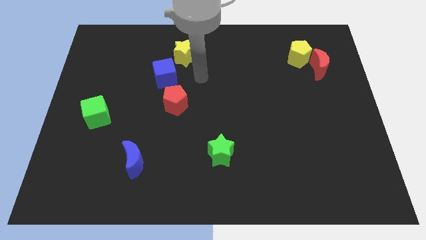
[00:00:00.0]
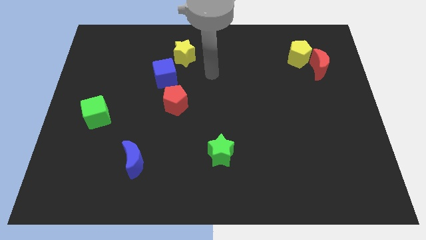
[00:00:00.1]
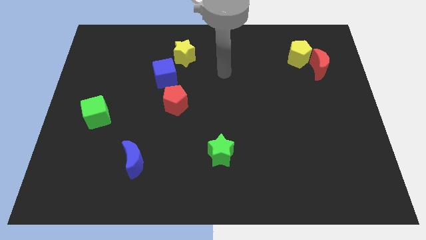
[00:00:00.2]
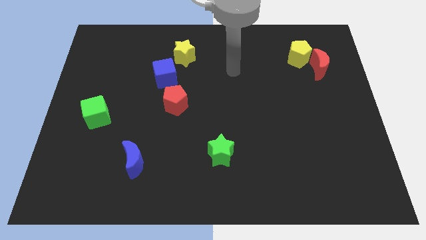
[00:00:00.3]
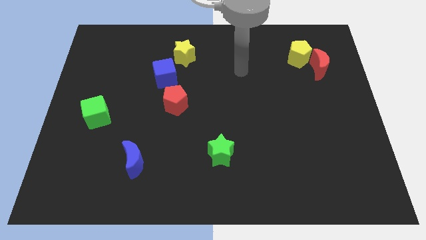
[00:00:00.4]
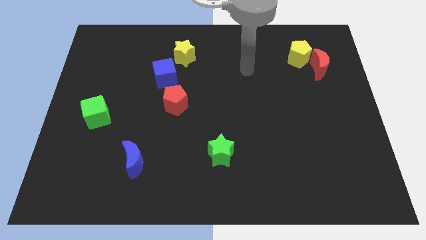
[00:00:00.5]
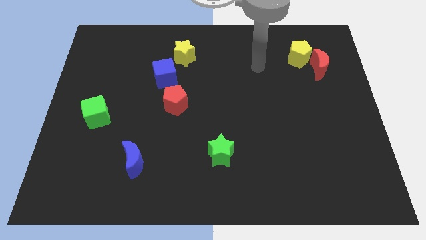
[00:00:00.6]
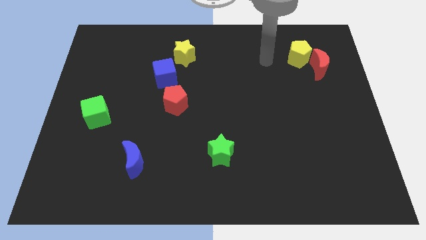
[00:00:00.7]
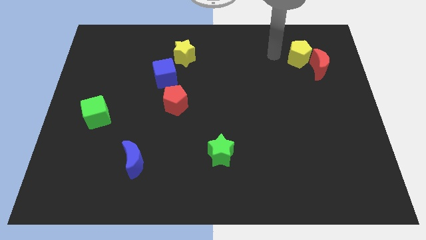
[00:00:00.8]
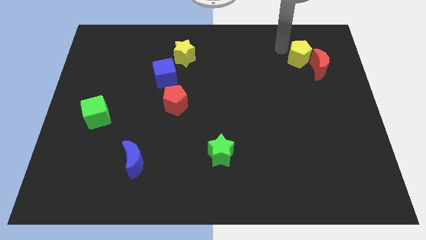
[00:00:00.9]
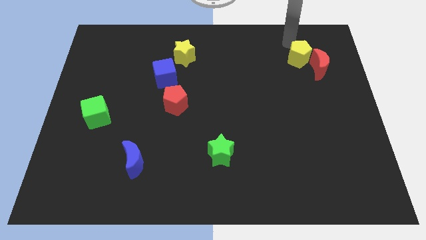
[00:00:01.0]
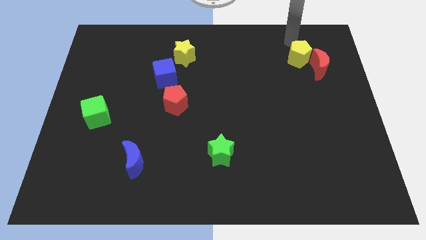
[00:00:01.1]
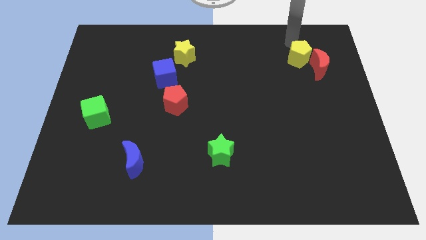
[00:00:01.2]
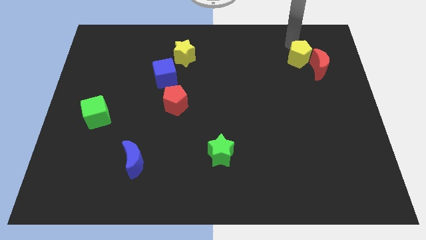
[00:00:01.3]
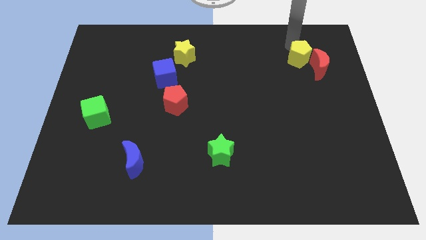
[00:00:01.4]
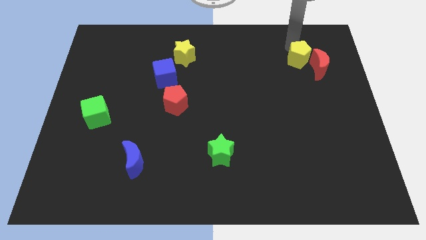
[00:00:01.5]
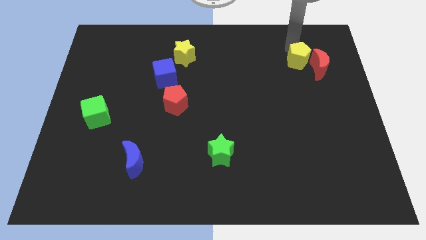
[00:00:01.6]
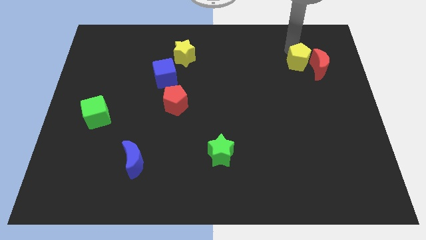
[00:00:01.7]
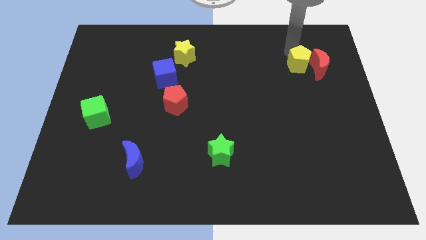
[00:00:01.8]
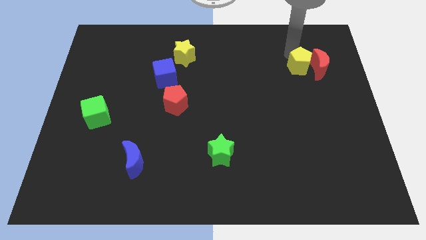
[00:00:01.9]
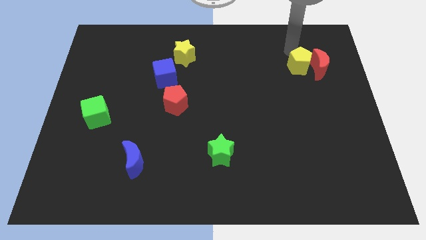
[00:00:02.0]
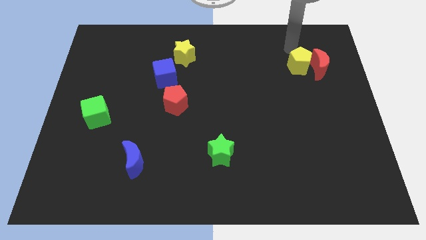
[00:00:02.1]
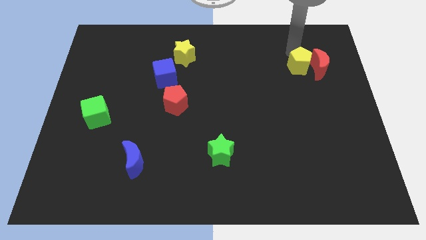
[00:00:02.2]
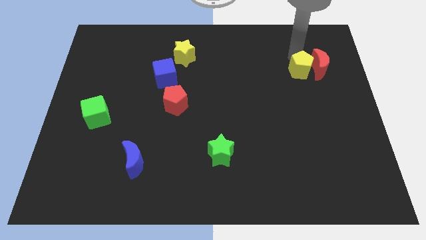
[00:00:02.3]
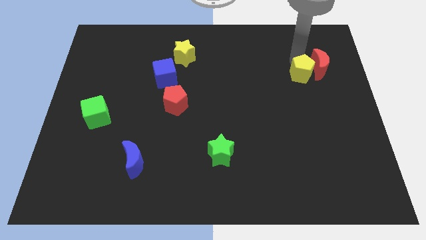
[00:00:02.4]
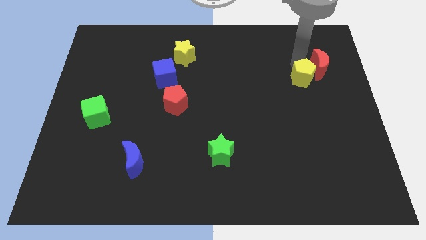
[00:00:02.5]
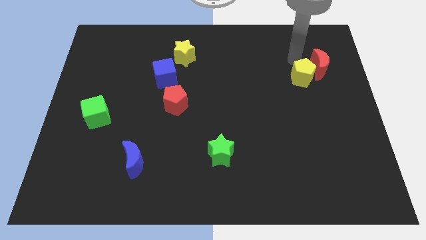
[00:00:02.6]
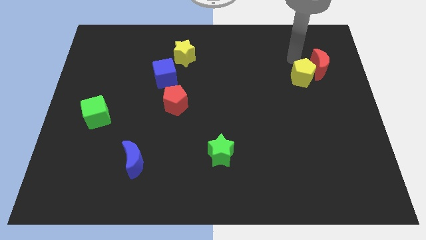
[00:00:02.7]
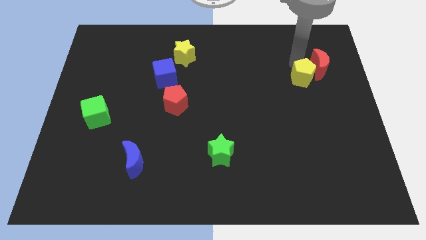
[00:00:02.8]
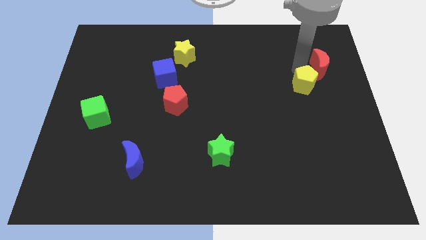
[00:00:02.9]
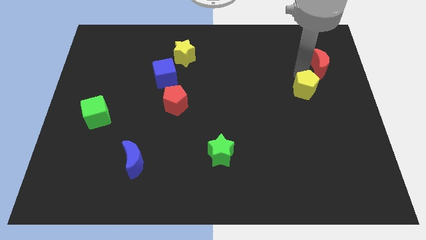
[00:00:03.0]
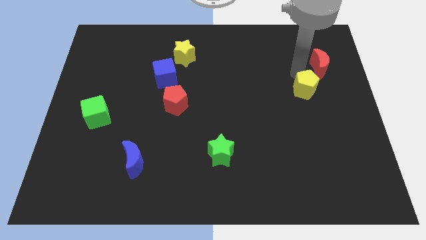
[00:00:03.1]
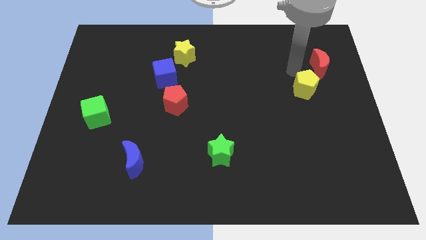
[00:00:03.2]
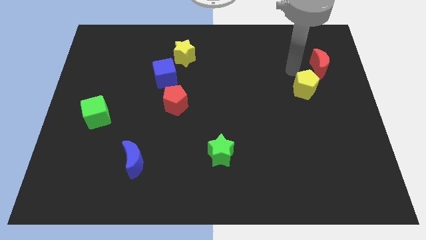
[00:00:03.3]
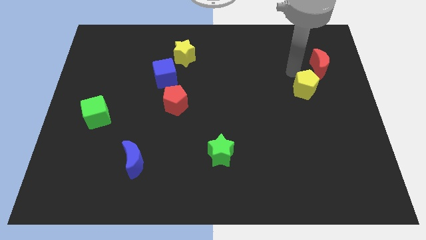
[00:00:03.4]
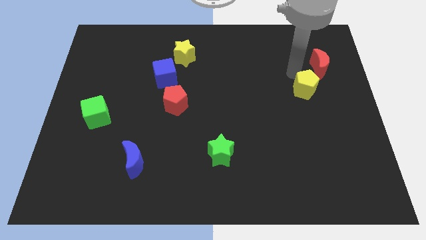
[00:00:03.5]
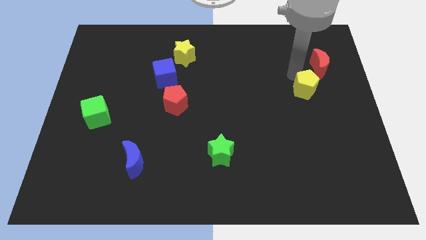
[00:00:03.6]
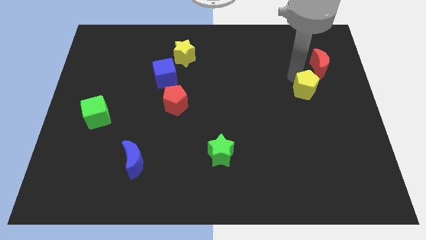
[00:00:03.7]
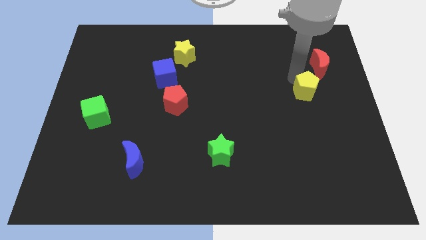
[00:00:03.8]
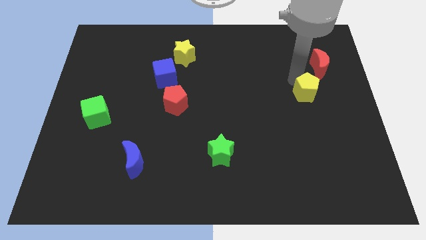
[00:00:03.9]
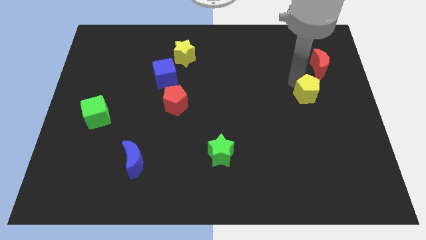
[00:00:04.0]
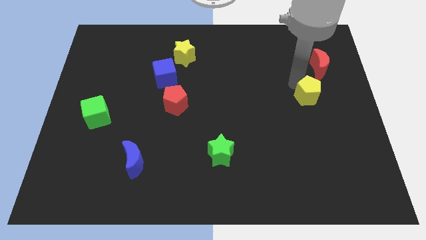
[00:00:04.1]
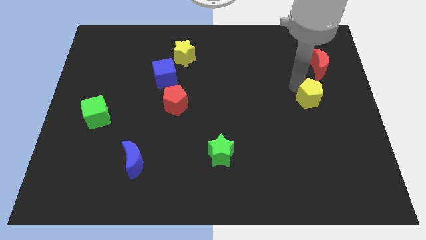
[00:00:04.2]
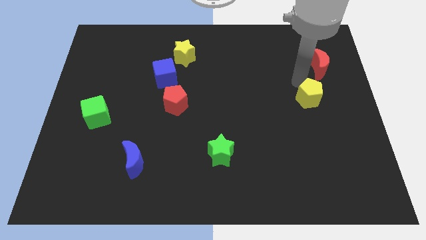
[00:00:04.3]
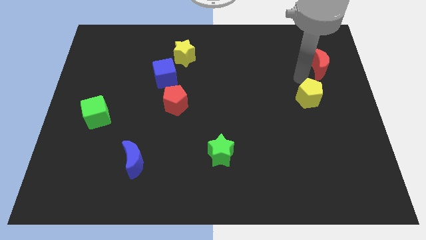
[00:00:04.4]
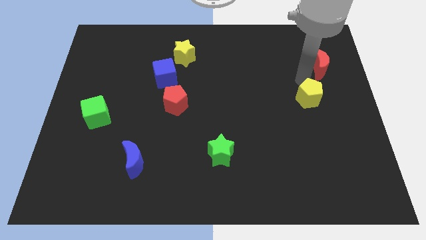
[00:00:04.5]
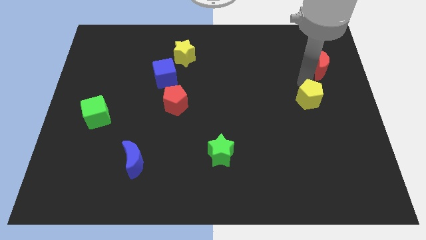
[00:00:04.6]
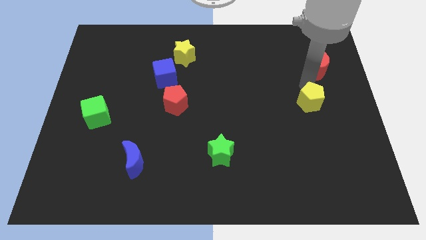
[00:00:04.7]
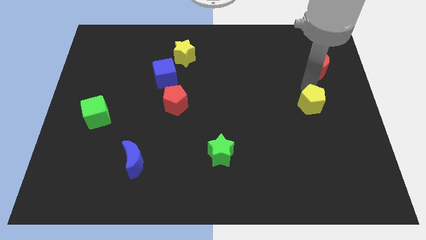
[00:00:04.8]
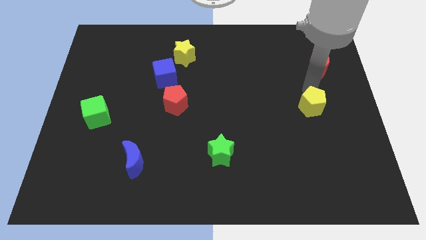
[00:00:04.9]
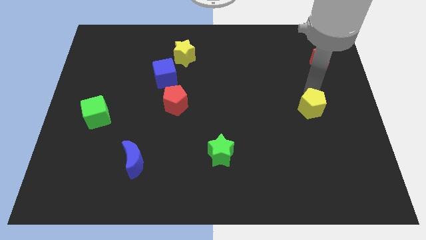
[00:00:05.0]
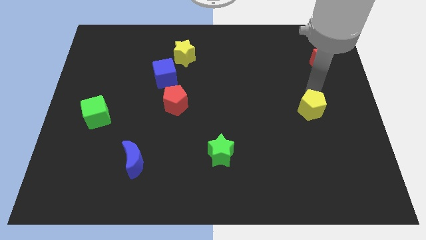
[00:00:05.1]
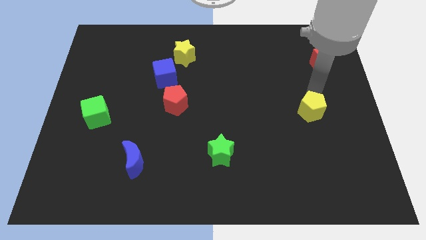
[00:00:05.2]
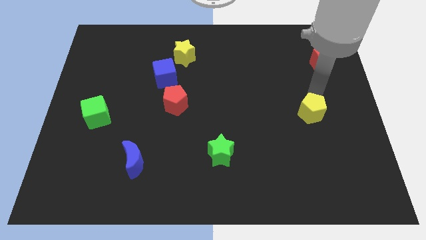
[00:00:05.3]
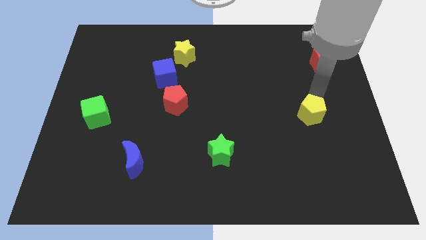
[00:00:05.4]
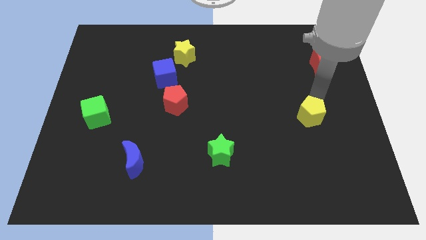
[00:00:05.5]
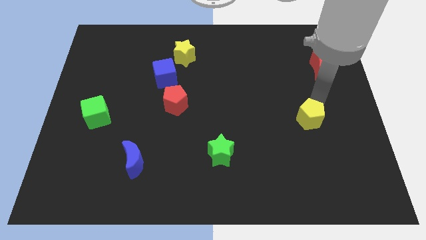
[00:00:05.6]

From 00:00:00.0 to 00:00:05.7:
slide the yellow pentagon downwards

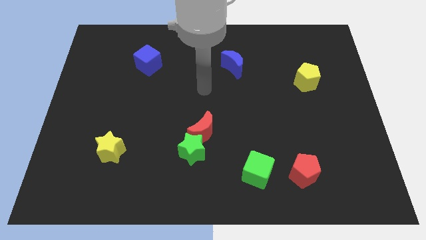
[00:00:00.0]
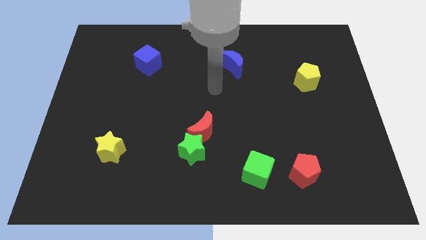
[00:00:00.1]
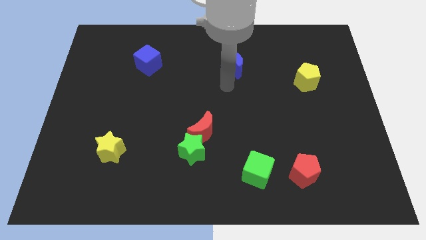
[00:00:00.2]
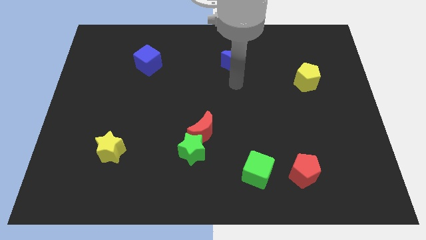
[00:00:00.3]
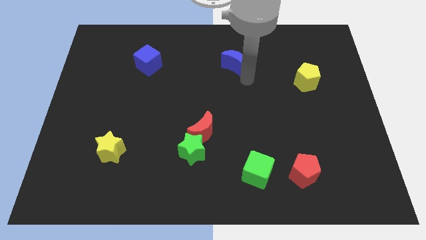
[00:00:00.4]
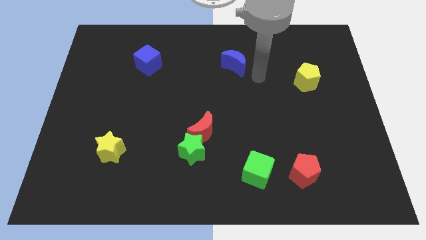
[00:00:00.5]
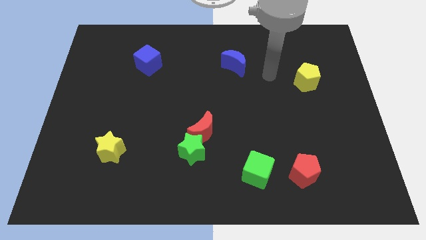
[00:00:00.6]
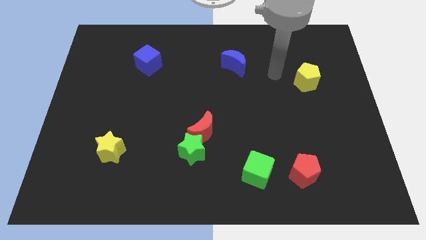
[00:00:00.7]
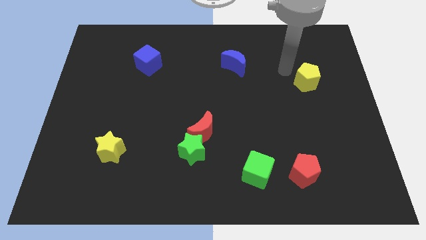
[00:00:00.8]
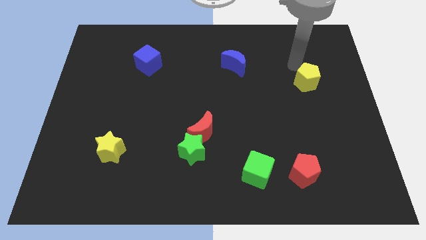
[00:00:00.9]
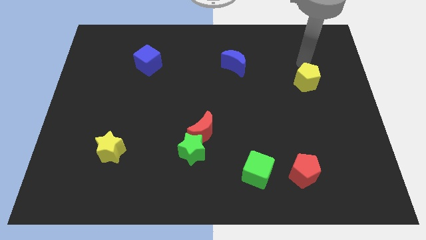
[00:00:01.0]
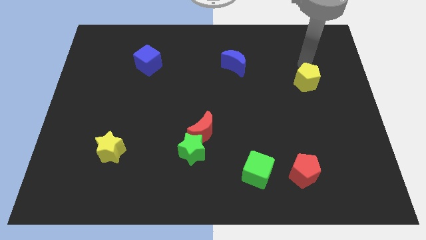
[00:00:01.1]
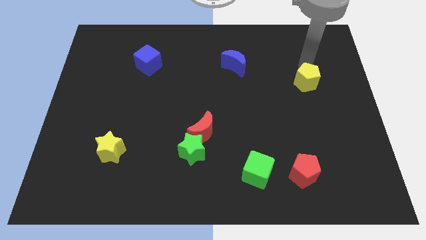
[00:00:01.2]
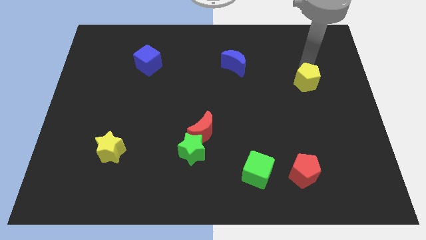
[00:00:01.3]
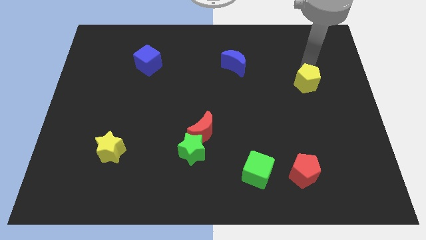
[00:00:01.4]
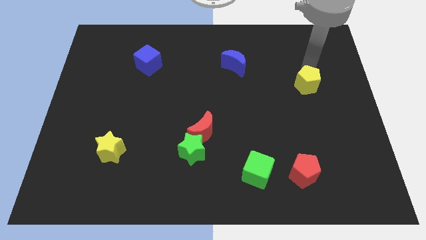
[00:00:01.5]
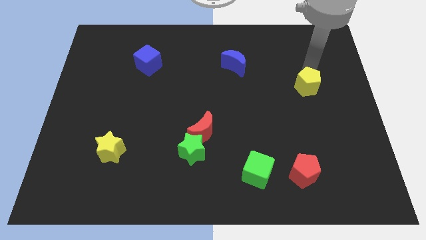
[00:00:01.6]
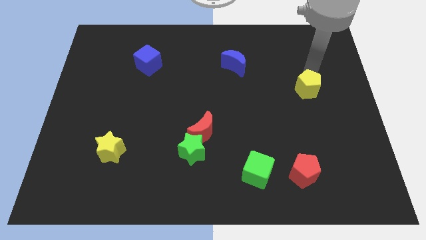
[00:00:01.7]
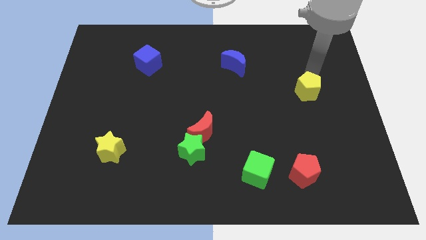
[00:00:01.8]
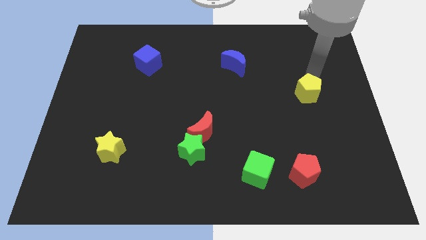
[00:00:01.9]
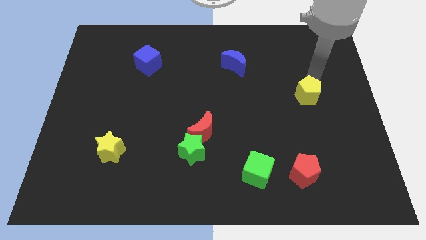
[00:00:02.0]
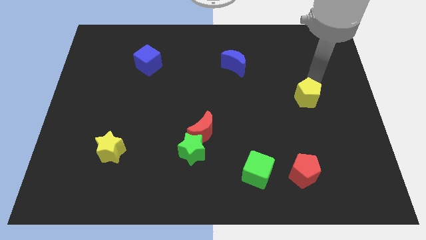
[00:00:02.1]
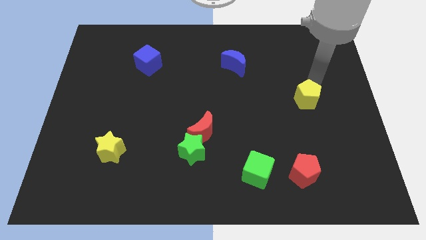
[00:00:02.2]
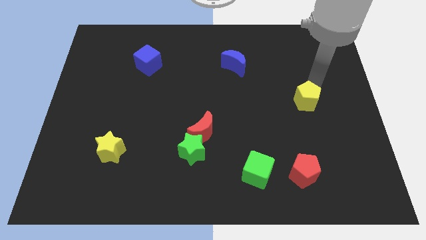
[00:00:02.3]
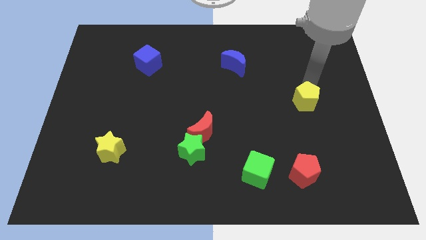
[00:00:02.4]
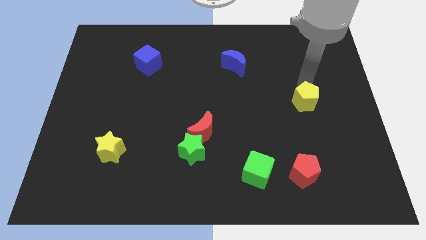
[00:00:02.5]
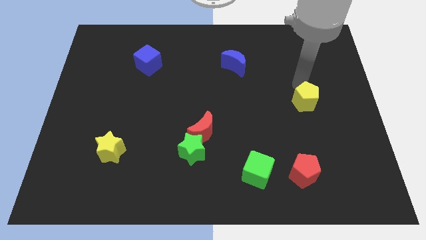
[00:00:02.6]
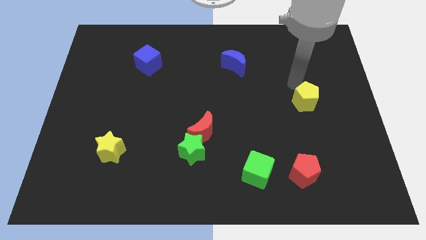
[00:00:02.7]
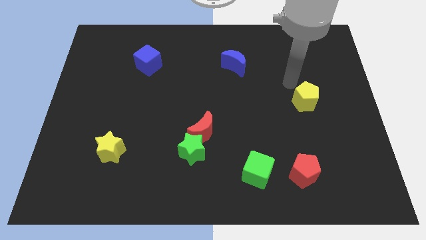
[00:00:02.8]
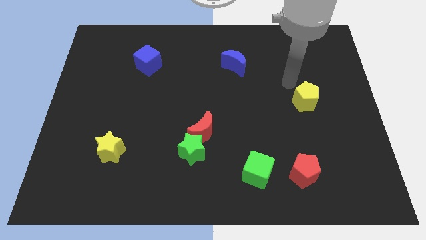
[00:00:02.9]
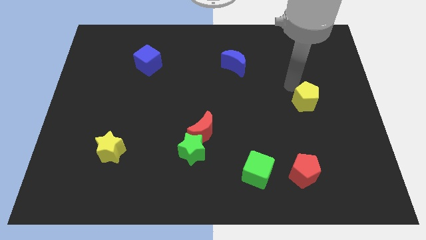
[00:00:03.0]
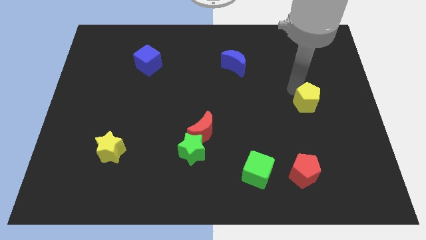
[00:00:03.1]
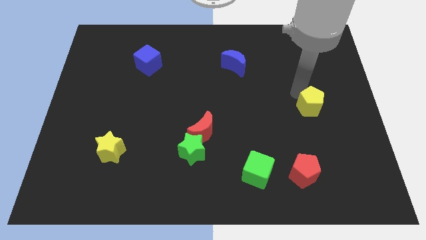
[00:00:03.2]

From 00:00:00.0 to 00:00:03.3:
slide the yellow pentagon a little bit downwards
